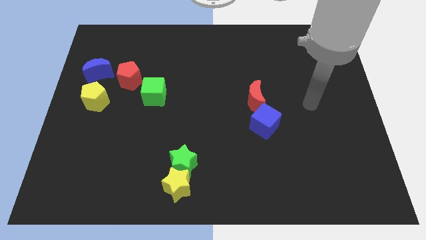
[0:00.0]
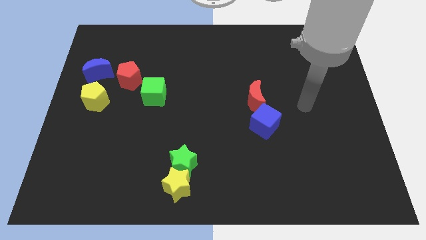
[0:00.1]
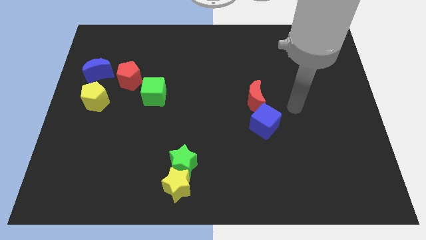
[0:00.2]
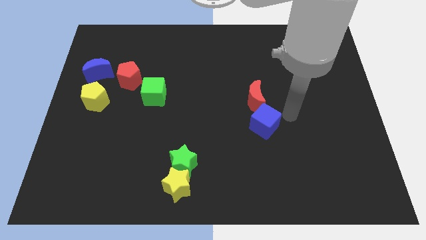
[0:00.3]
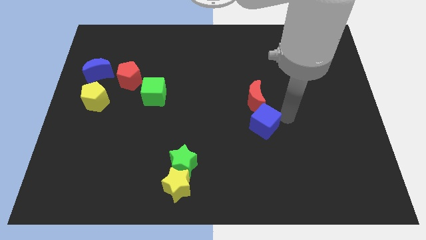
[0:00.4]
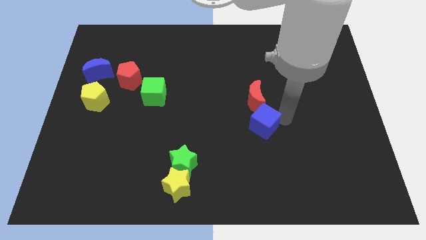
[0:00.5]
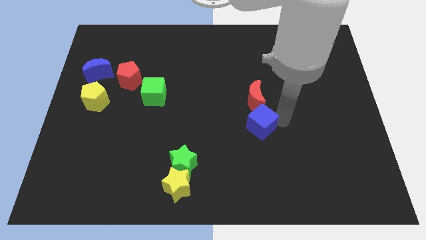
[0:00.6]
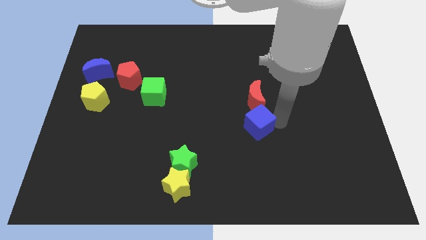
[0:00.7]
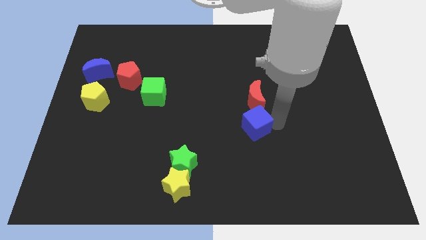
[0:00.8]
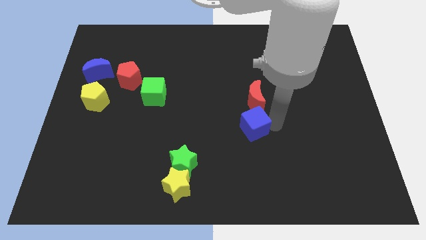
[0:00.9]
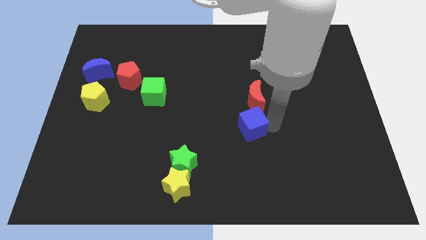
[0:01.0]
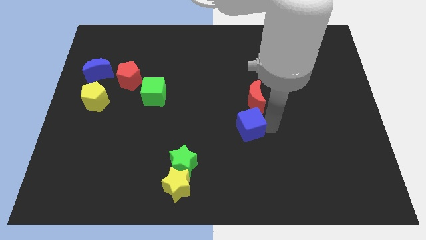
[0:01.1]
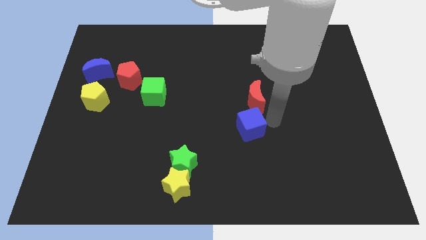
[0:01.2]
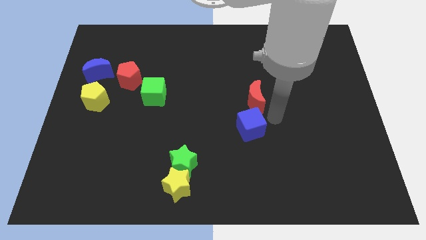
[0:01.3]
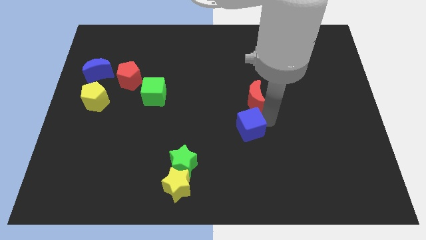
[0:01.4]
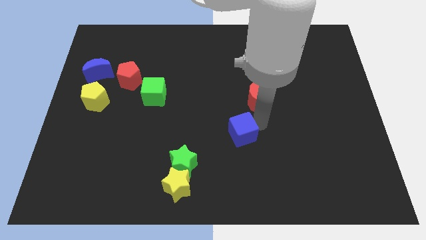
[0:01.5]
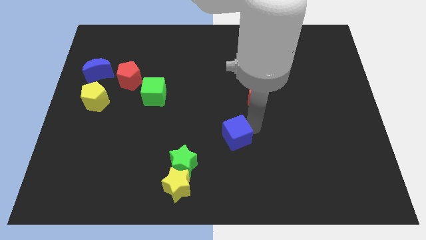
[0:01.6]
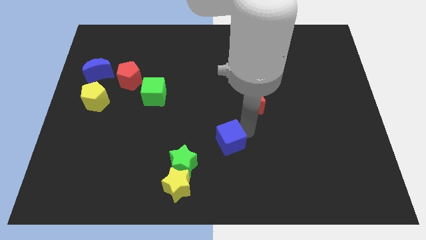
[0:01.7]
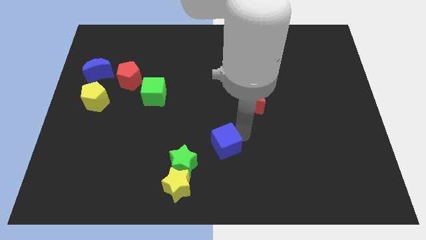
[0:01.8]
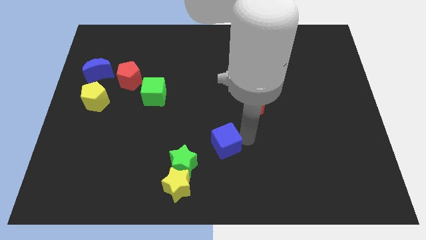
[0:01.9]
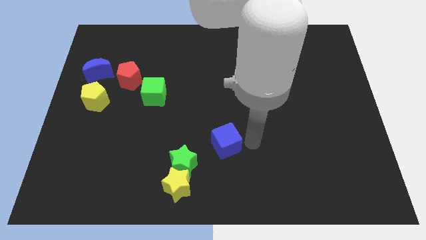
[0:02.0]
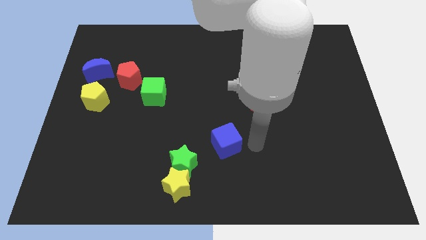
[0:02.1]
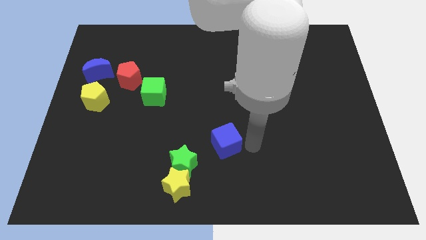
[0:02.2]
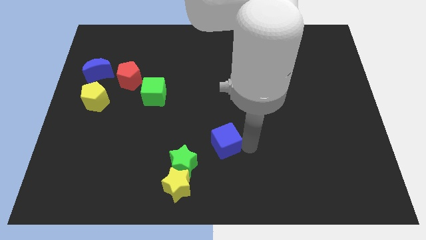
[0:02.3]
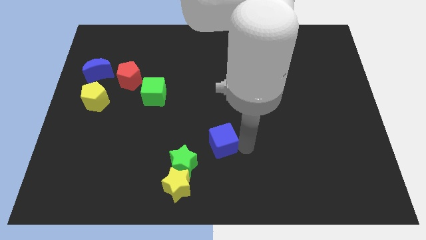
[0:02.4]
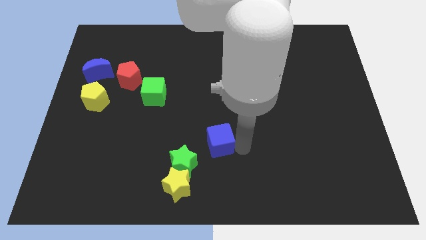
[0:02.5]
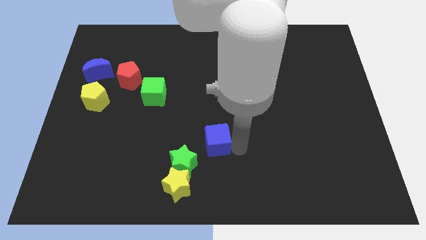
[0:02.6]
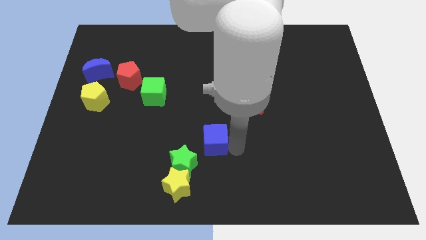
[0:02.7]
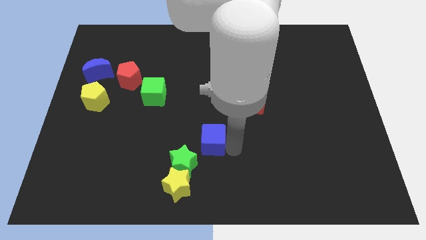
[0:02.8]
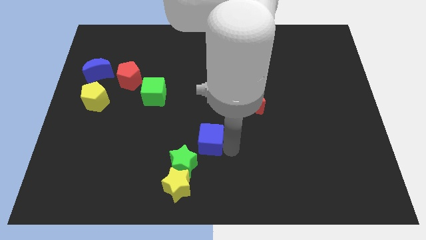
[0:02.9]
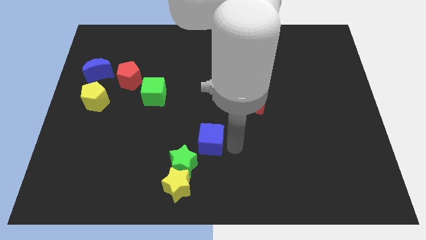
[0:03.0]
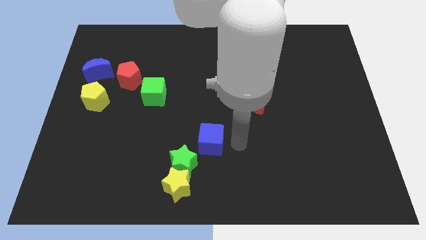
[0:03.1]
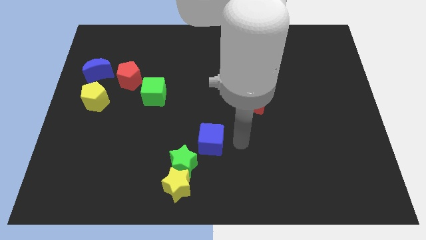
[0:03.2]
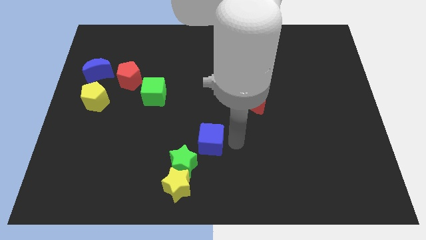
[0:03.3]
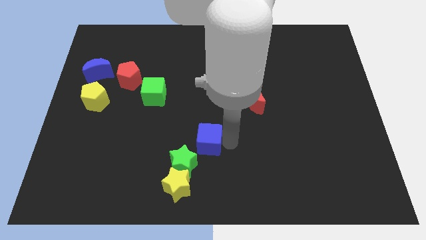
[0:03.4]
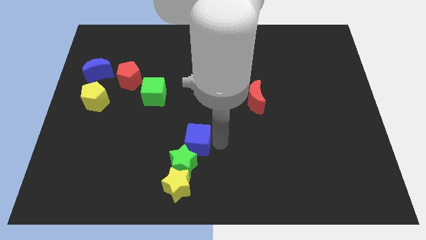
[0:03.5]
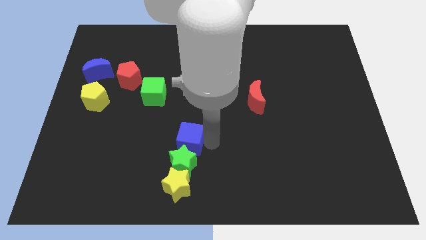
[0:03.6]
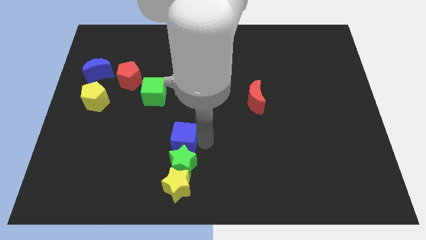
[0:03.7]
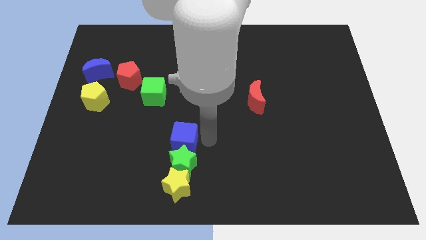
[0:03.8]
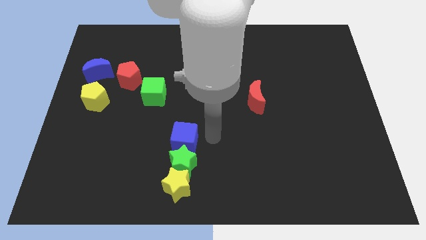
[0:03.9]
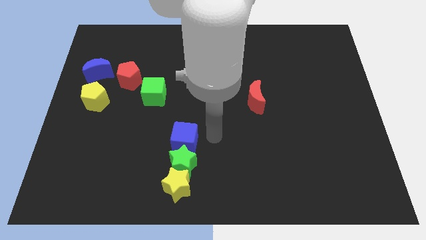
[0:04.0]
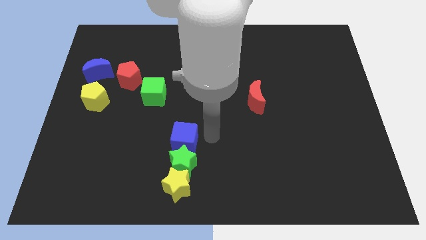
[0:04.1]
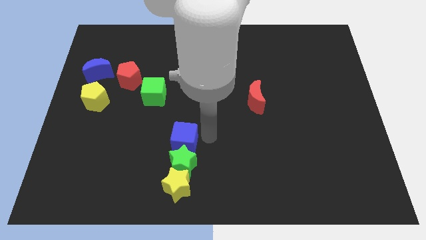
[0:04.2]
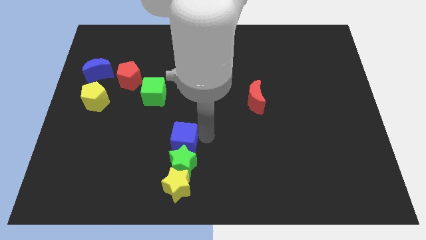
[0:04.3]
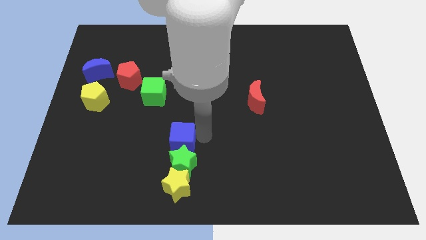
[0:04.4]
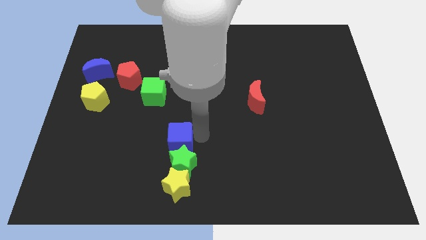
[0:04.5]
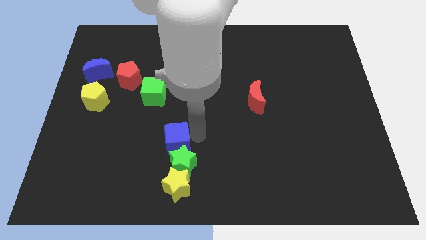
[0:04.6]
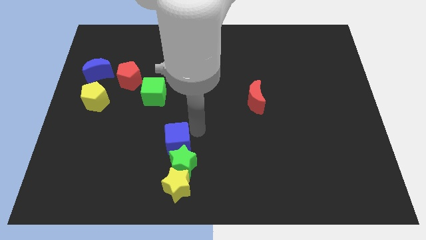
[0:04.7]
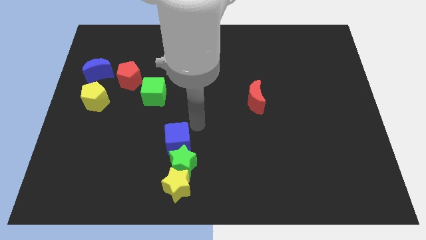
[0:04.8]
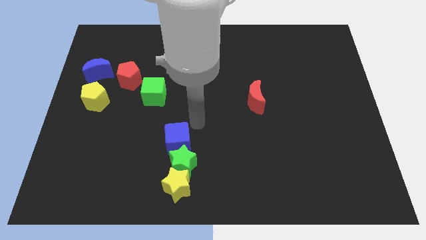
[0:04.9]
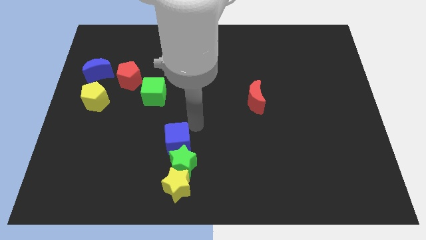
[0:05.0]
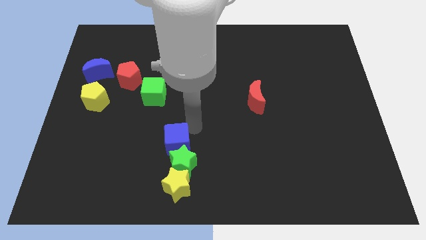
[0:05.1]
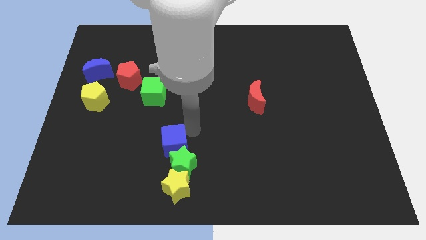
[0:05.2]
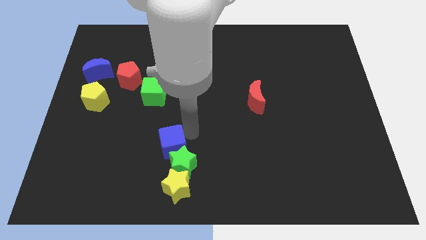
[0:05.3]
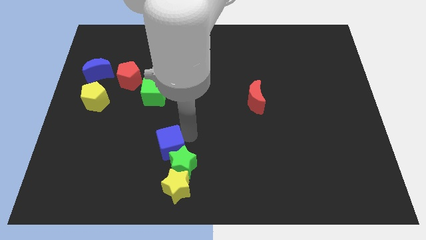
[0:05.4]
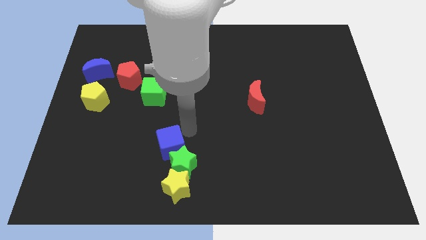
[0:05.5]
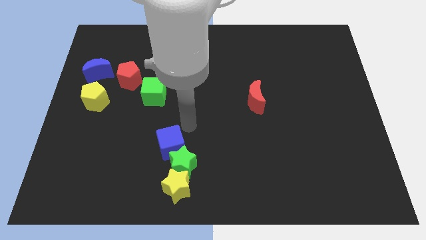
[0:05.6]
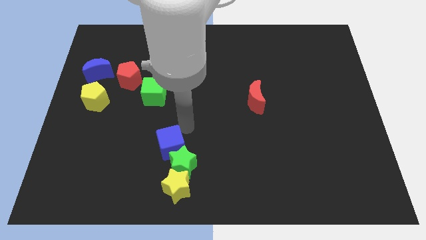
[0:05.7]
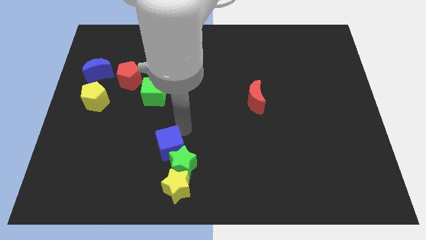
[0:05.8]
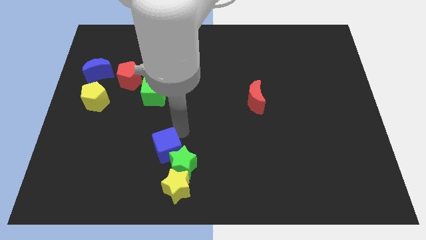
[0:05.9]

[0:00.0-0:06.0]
push the blue cube diagonally up and to the left of the yellow star

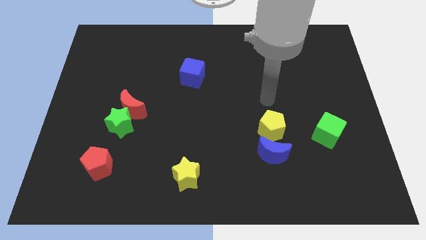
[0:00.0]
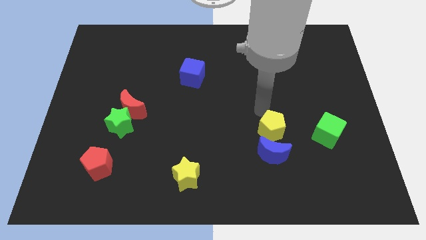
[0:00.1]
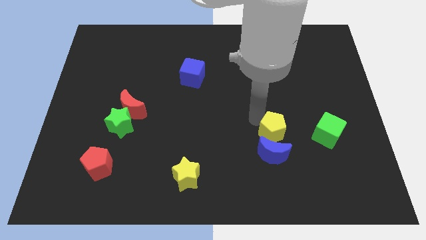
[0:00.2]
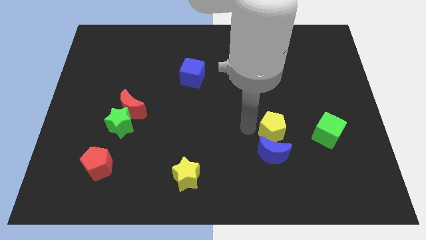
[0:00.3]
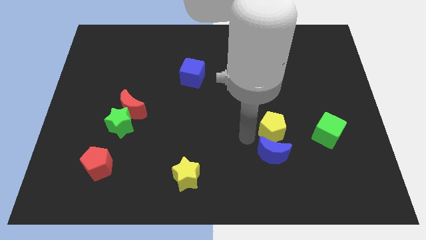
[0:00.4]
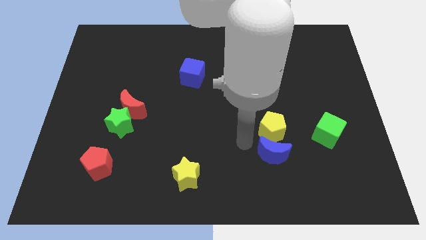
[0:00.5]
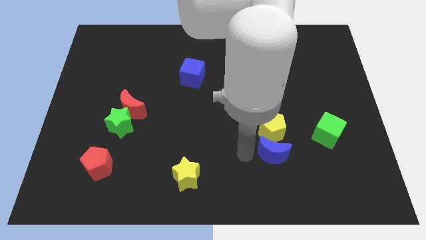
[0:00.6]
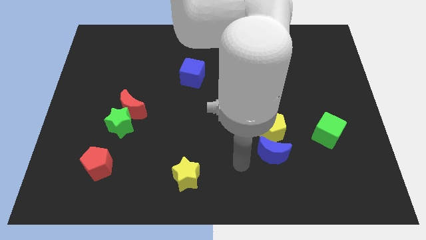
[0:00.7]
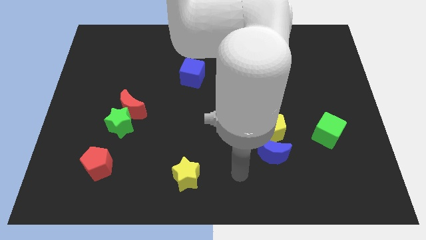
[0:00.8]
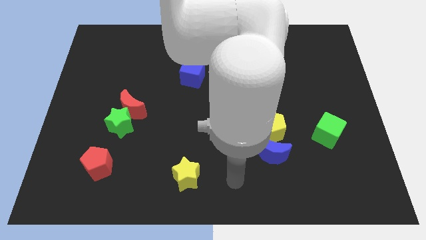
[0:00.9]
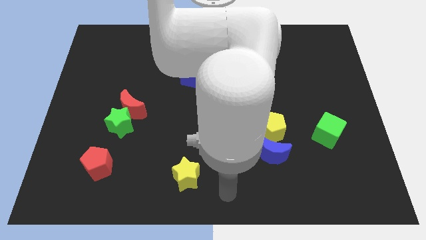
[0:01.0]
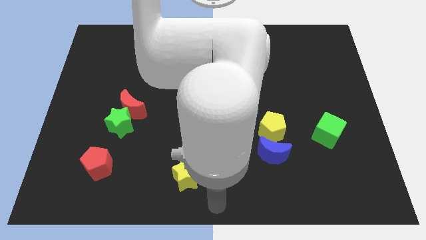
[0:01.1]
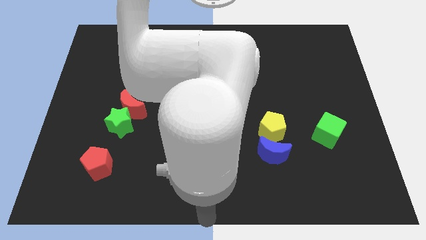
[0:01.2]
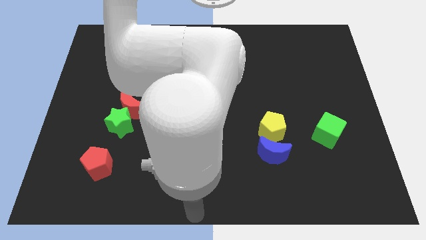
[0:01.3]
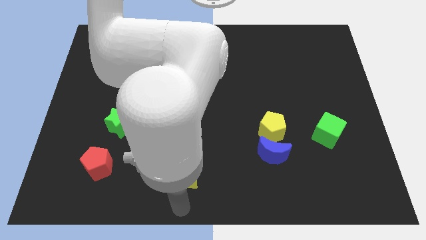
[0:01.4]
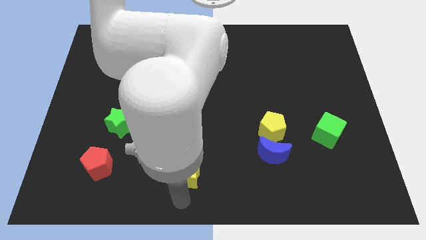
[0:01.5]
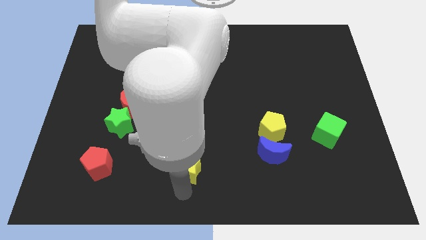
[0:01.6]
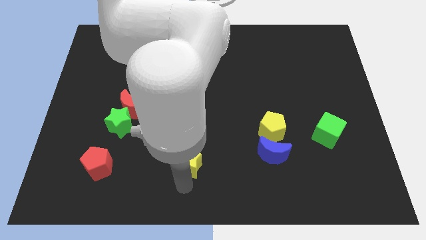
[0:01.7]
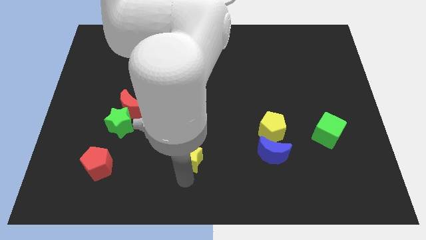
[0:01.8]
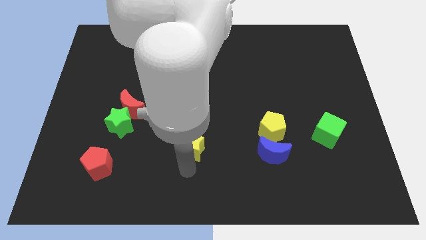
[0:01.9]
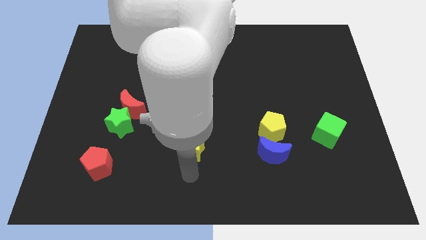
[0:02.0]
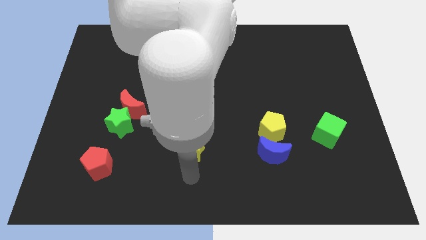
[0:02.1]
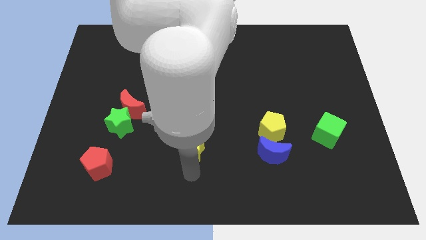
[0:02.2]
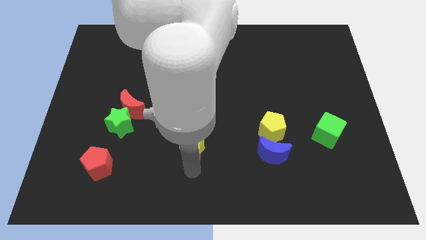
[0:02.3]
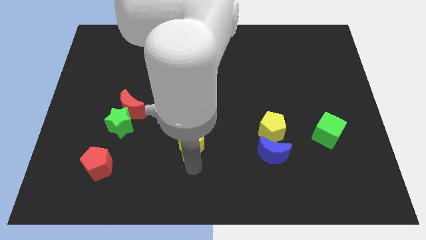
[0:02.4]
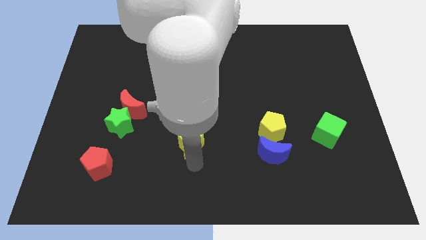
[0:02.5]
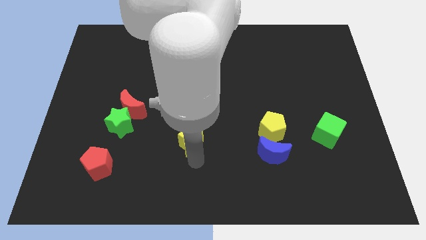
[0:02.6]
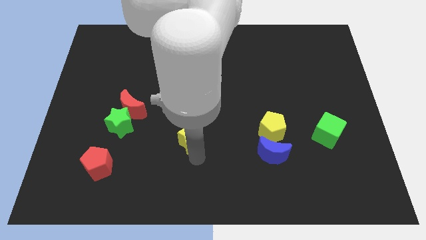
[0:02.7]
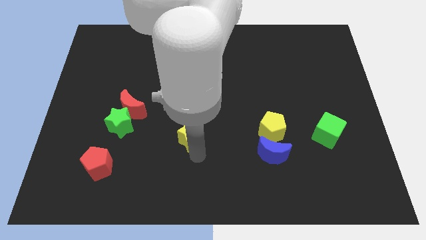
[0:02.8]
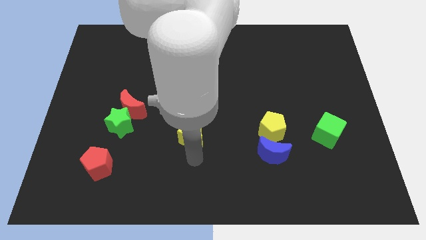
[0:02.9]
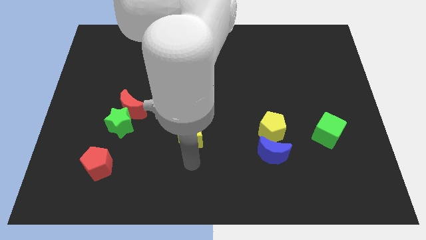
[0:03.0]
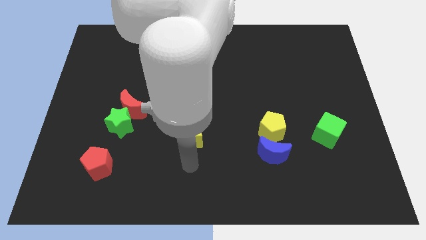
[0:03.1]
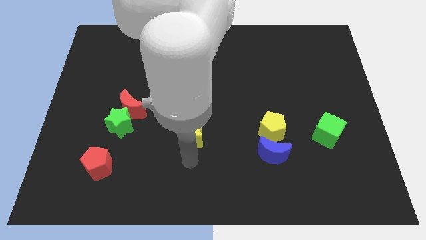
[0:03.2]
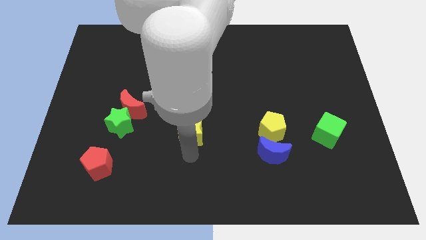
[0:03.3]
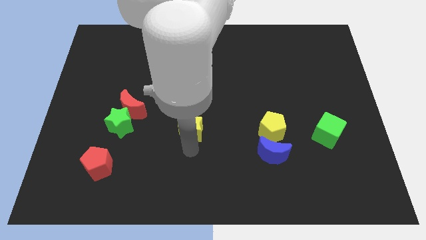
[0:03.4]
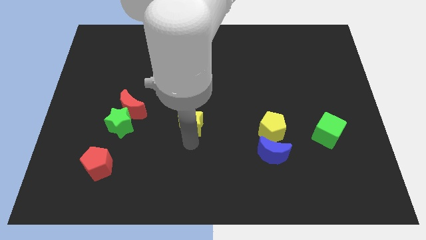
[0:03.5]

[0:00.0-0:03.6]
slide the yellow star to the bottom side of the blue cube
